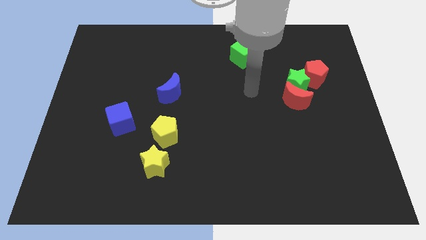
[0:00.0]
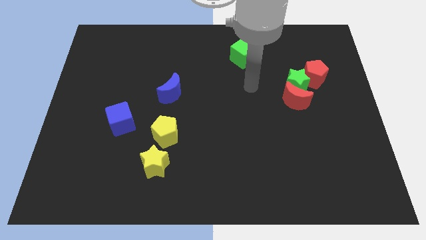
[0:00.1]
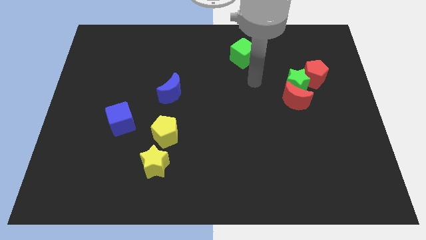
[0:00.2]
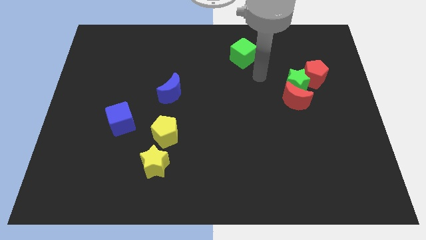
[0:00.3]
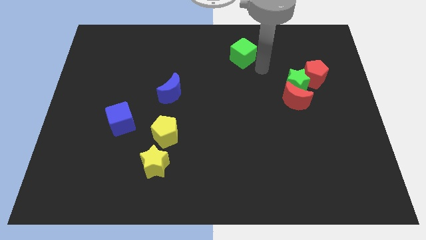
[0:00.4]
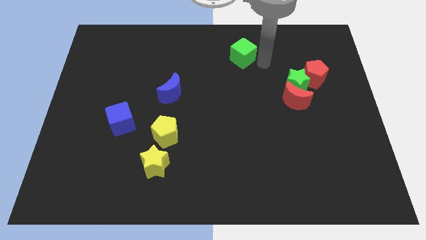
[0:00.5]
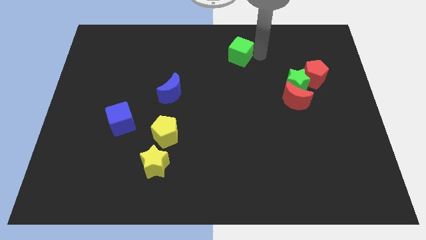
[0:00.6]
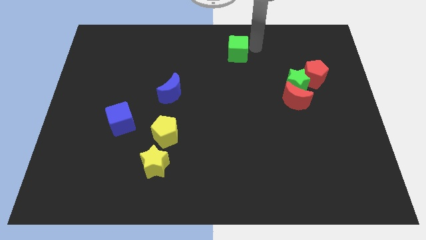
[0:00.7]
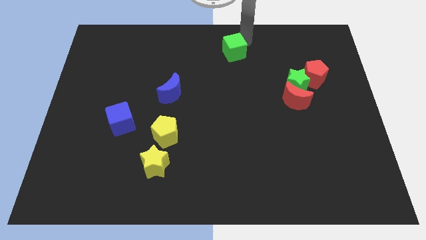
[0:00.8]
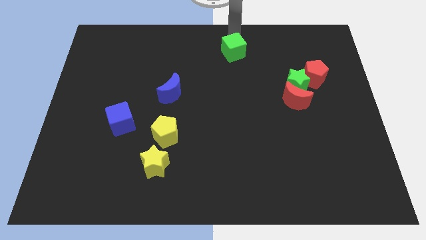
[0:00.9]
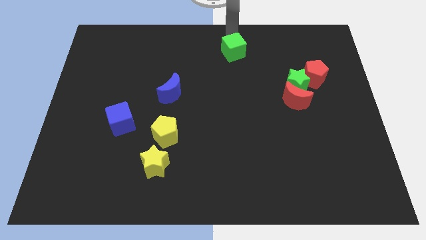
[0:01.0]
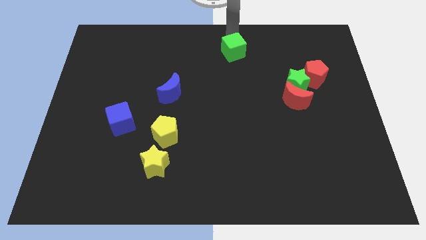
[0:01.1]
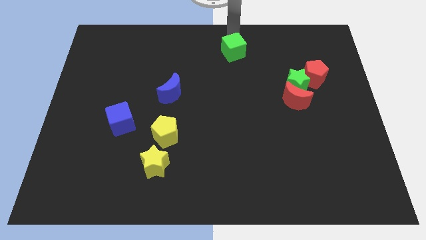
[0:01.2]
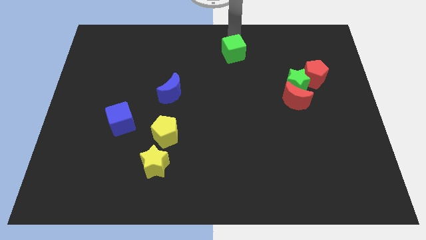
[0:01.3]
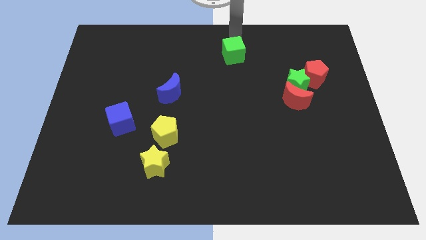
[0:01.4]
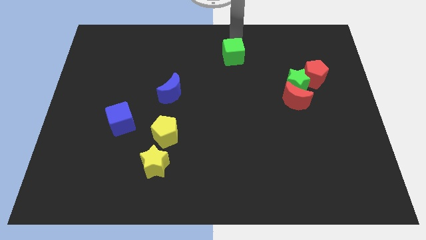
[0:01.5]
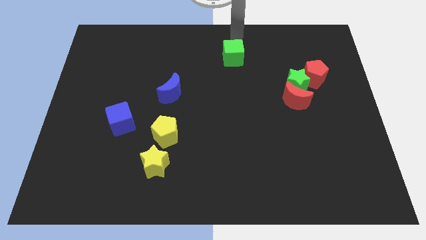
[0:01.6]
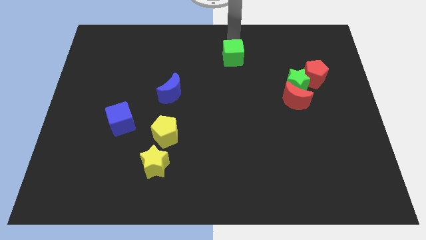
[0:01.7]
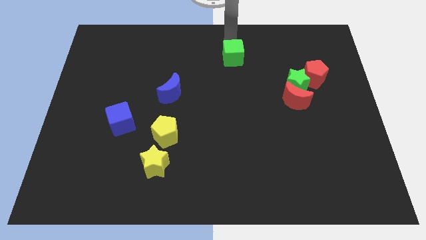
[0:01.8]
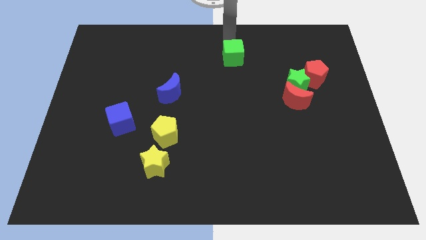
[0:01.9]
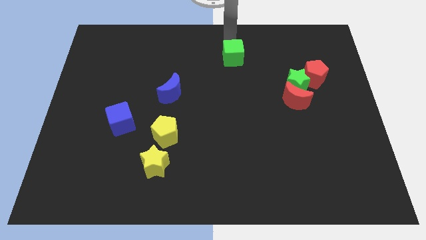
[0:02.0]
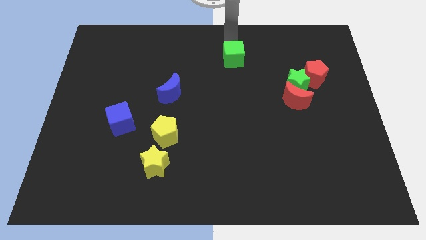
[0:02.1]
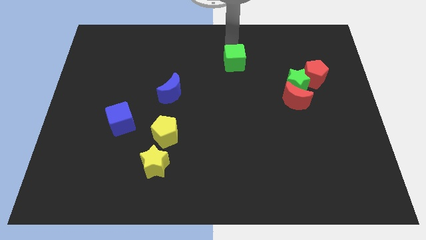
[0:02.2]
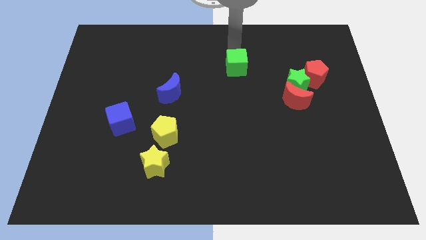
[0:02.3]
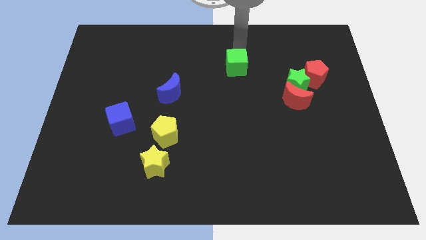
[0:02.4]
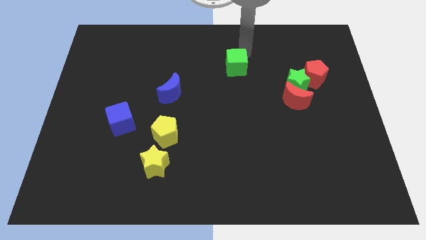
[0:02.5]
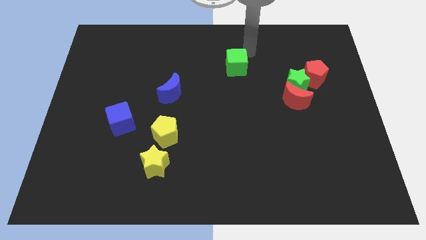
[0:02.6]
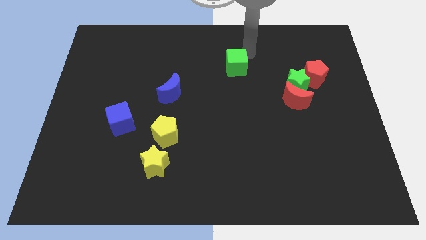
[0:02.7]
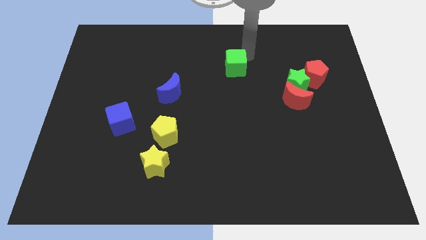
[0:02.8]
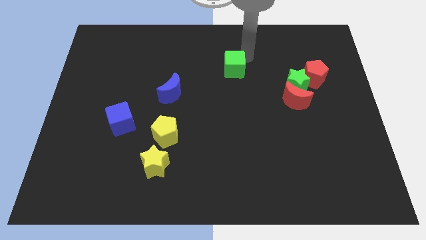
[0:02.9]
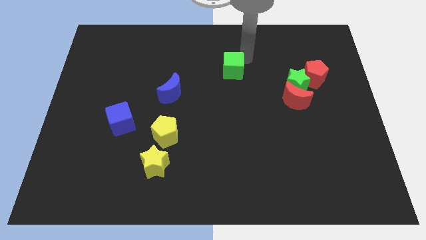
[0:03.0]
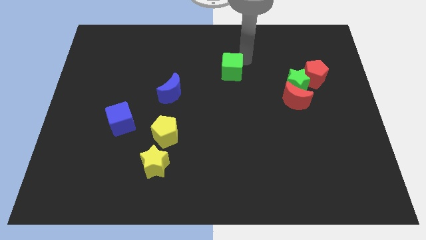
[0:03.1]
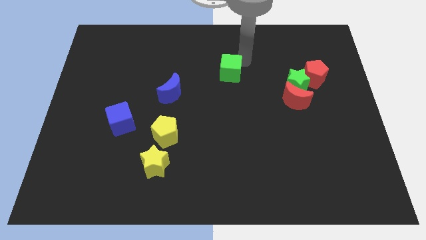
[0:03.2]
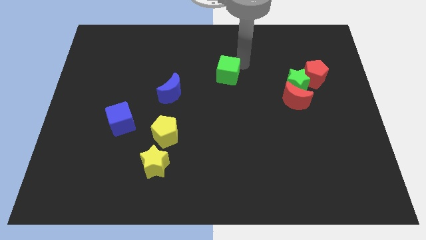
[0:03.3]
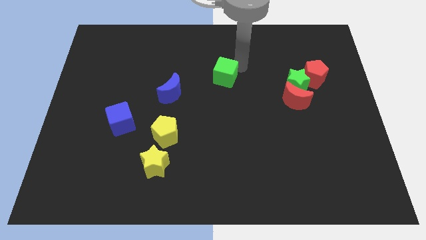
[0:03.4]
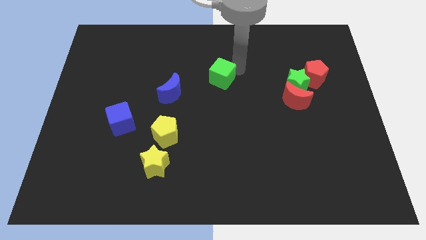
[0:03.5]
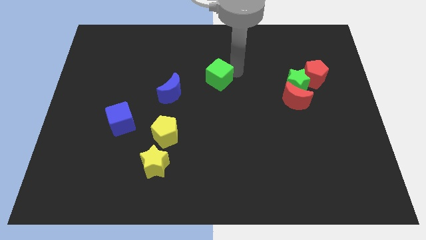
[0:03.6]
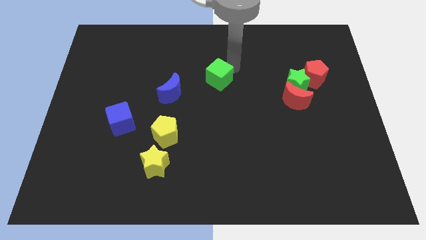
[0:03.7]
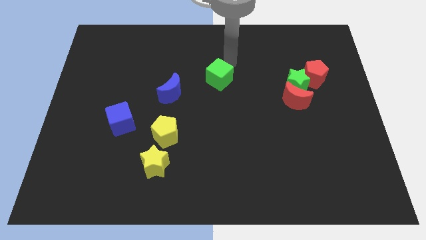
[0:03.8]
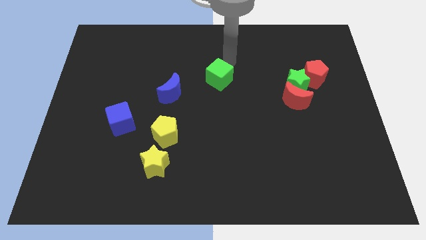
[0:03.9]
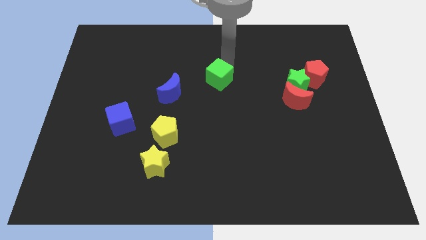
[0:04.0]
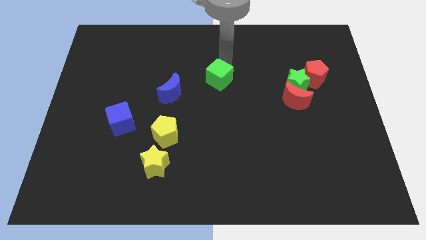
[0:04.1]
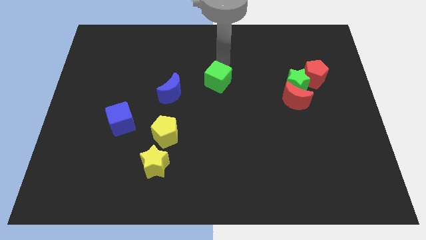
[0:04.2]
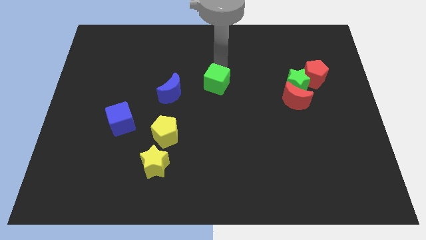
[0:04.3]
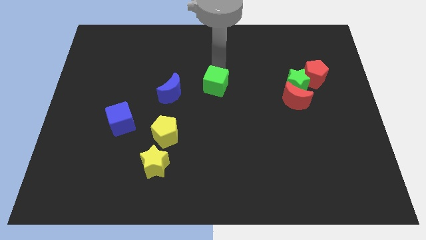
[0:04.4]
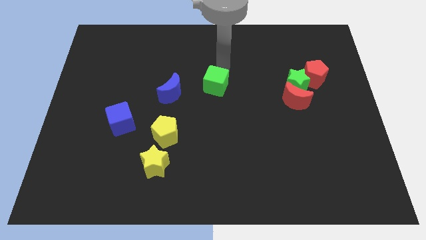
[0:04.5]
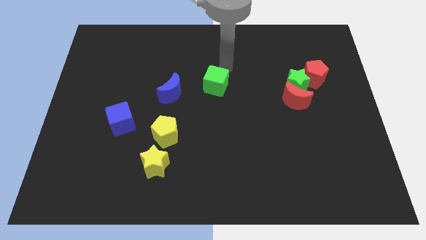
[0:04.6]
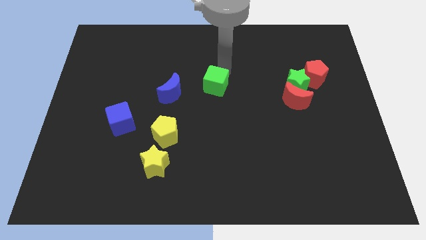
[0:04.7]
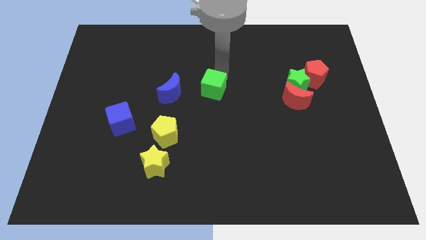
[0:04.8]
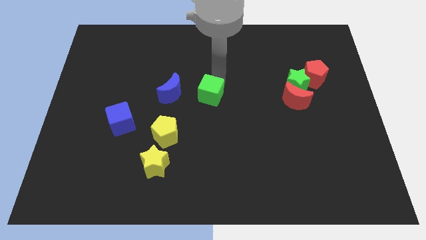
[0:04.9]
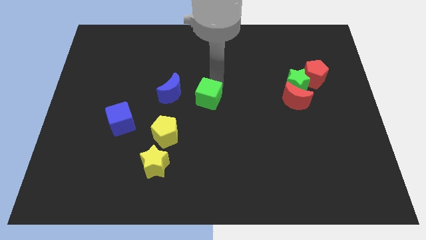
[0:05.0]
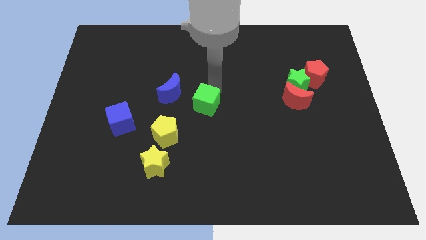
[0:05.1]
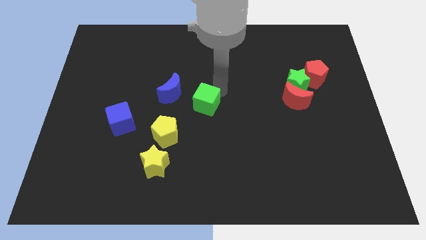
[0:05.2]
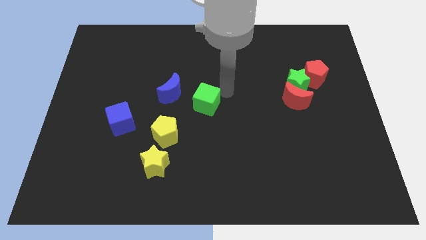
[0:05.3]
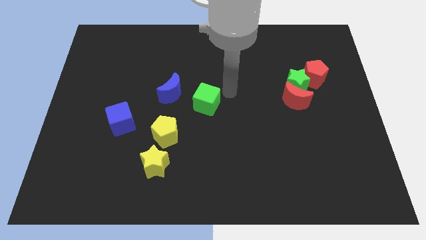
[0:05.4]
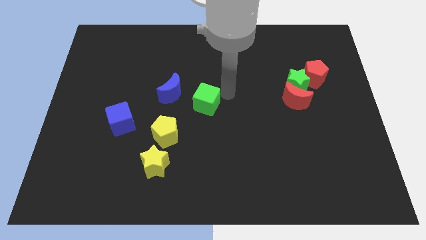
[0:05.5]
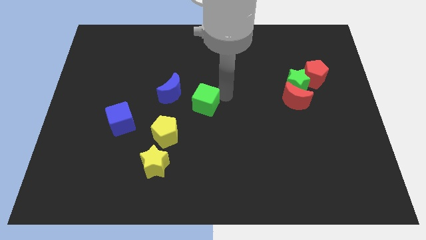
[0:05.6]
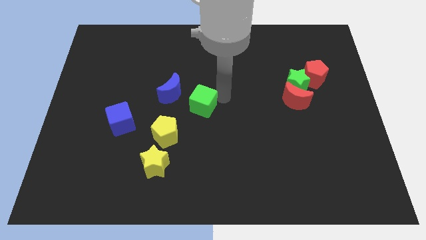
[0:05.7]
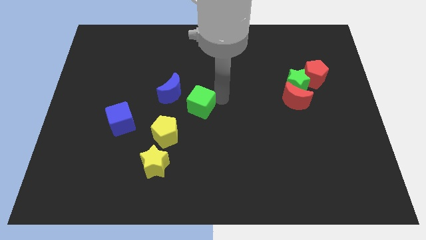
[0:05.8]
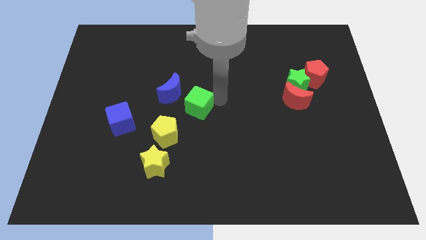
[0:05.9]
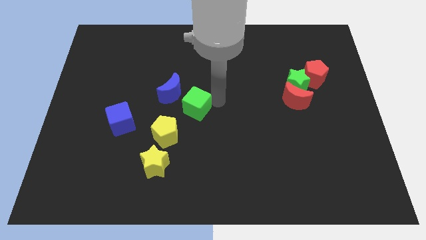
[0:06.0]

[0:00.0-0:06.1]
move the green cube downwards and then left

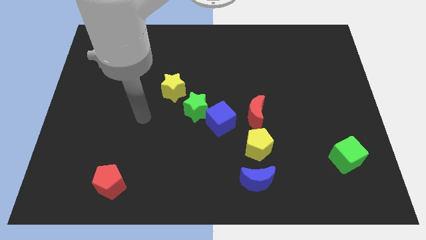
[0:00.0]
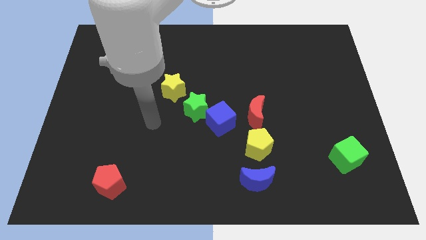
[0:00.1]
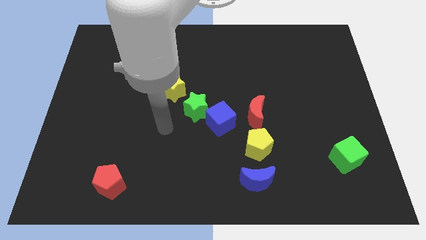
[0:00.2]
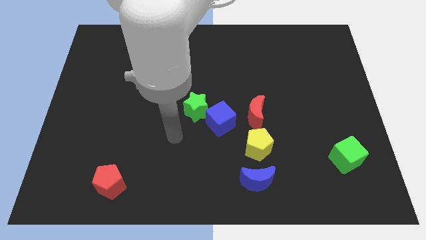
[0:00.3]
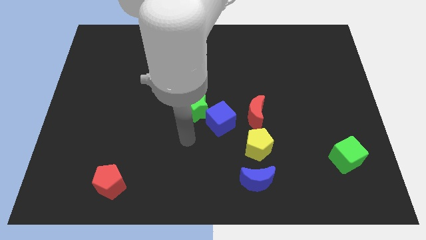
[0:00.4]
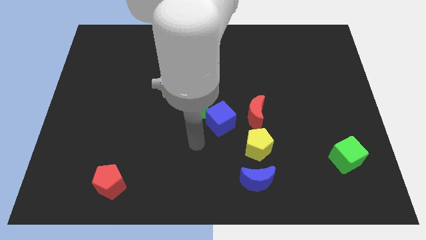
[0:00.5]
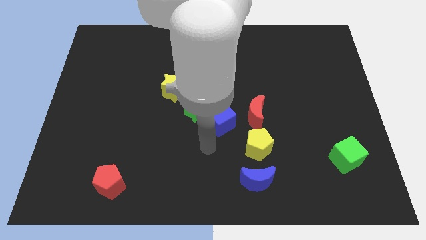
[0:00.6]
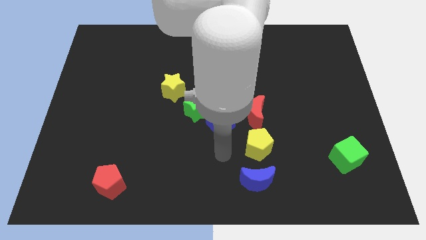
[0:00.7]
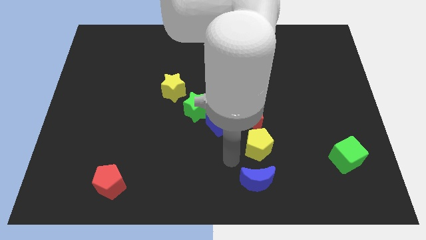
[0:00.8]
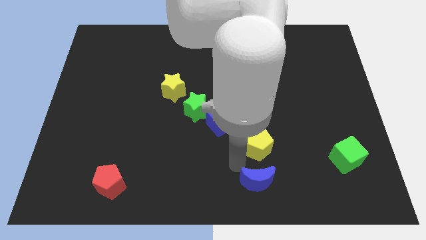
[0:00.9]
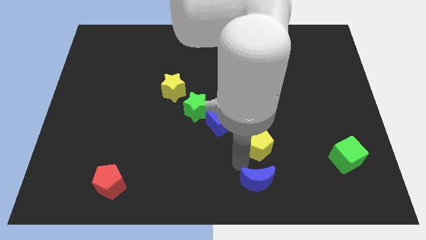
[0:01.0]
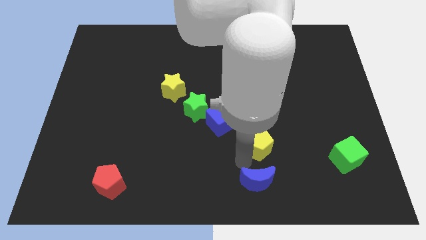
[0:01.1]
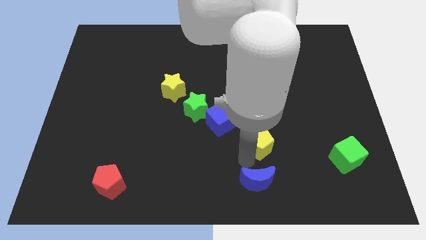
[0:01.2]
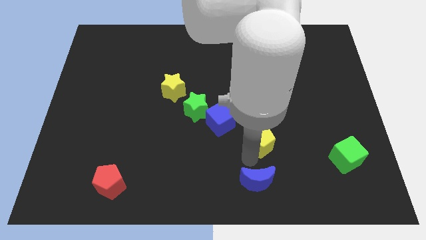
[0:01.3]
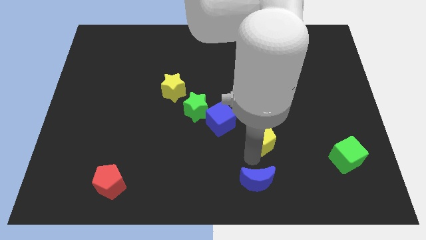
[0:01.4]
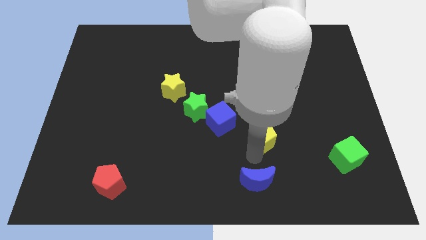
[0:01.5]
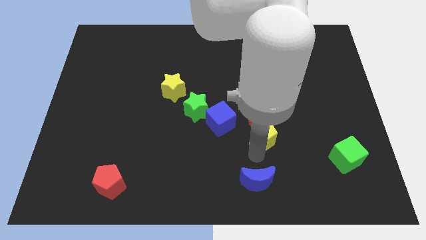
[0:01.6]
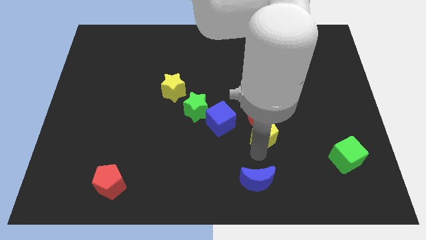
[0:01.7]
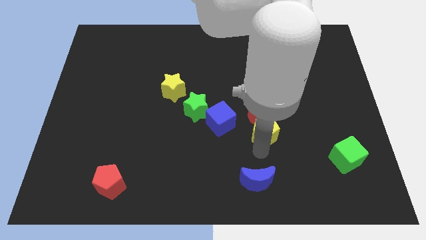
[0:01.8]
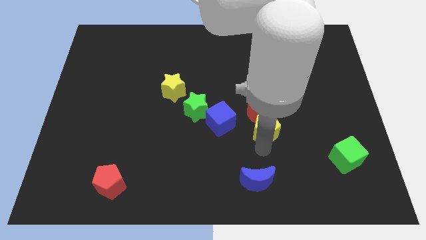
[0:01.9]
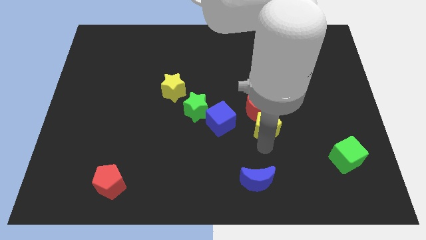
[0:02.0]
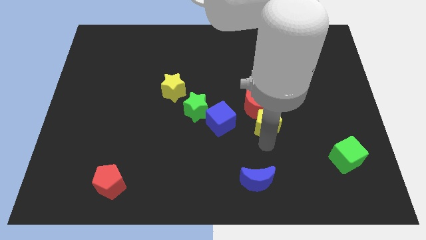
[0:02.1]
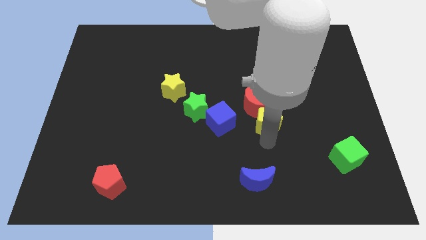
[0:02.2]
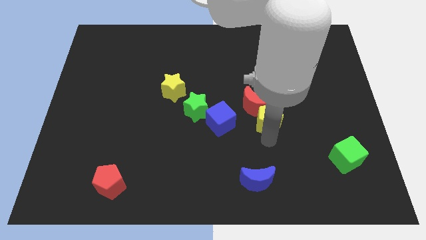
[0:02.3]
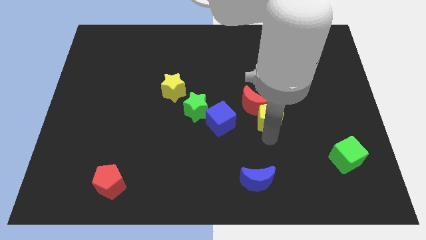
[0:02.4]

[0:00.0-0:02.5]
slightly slide the yellow pentagon upwards and to the right
